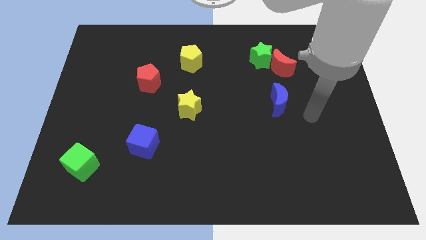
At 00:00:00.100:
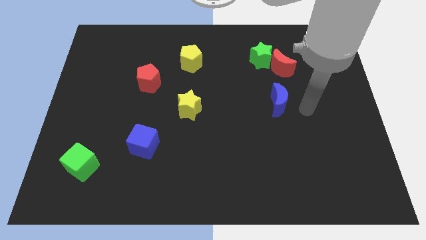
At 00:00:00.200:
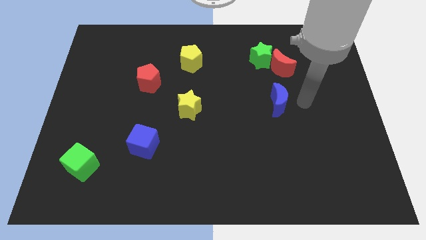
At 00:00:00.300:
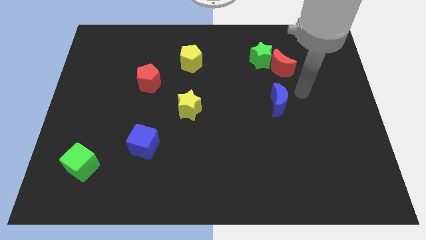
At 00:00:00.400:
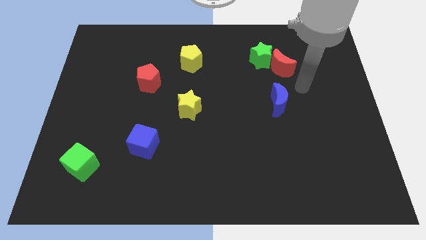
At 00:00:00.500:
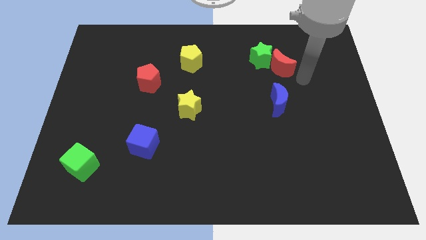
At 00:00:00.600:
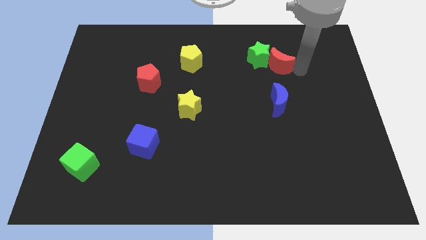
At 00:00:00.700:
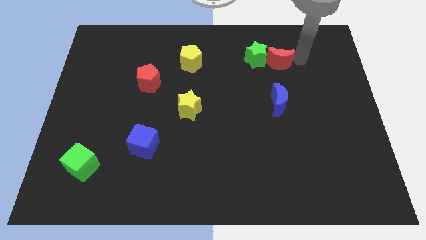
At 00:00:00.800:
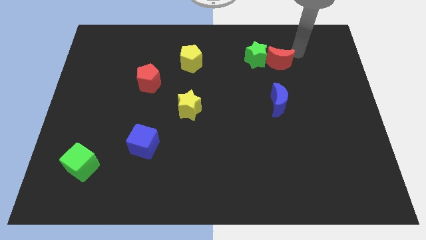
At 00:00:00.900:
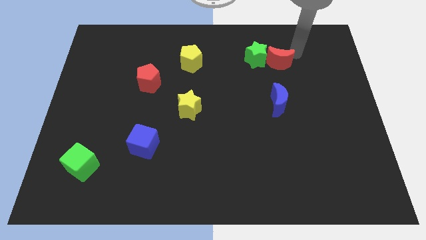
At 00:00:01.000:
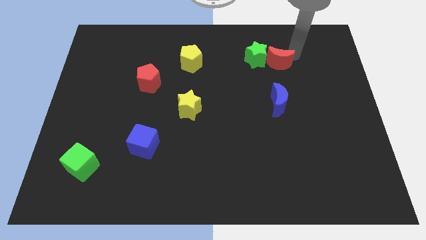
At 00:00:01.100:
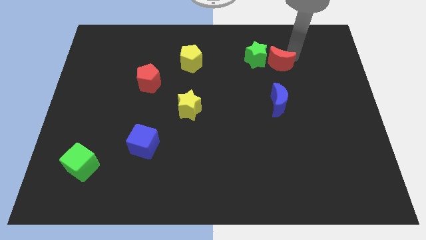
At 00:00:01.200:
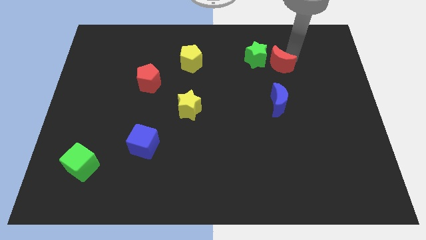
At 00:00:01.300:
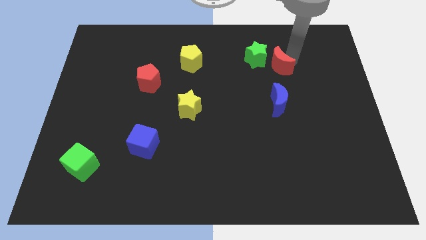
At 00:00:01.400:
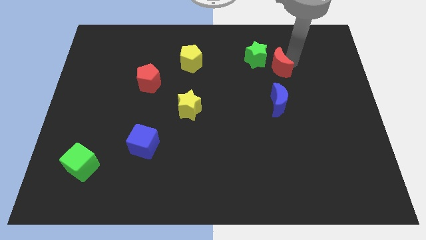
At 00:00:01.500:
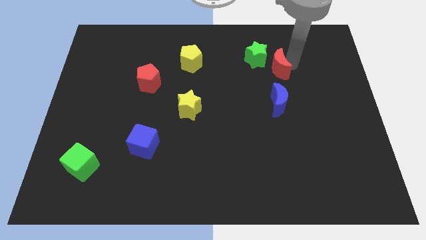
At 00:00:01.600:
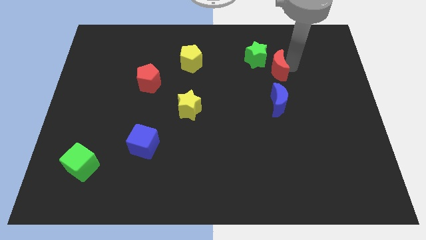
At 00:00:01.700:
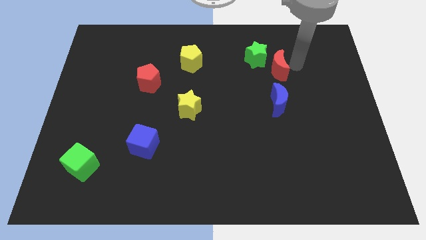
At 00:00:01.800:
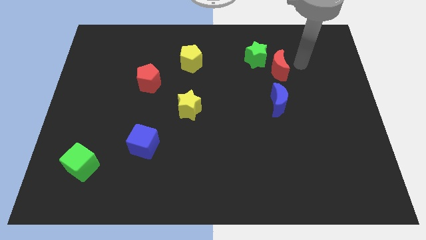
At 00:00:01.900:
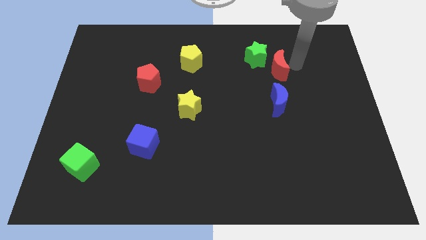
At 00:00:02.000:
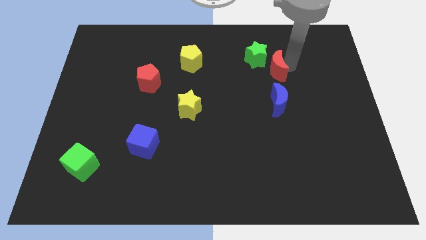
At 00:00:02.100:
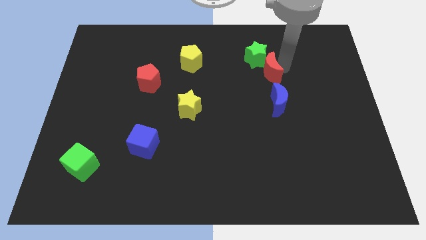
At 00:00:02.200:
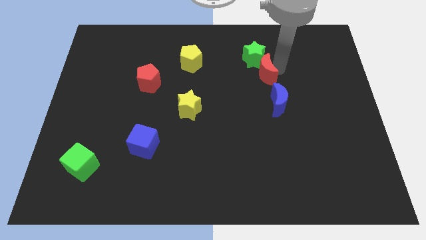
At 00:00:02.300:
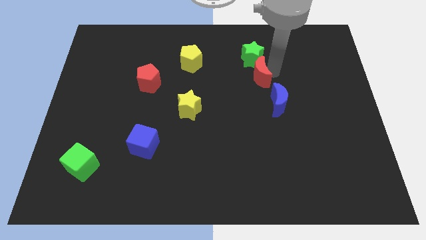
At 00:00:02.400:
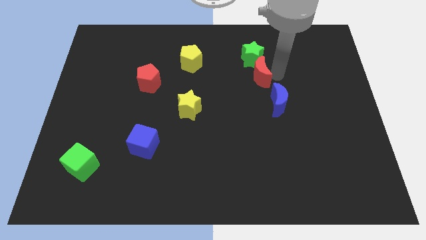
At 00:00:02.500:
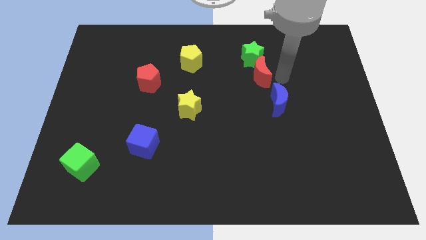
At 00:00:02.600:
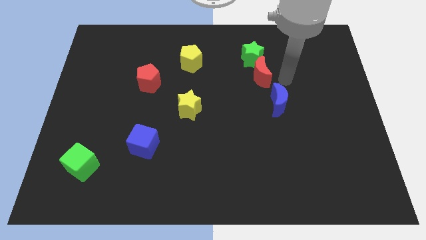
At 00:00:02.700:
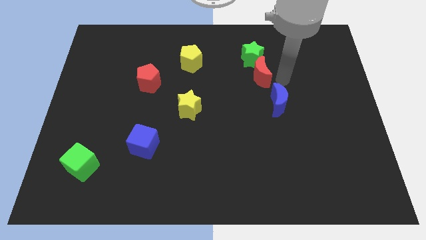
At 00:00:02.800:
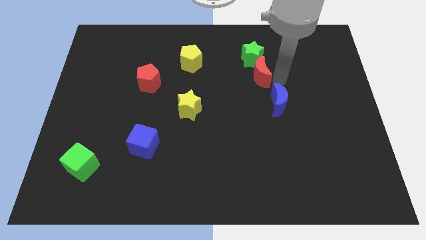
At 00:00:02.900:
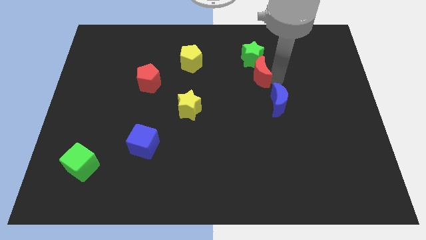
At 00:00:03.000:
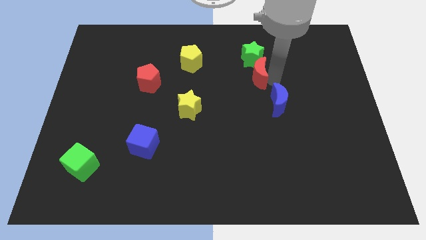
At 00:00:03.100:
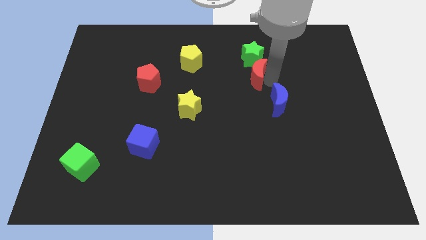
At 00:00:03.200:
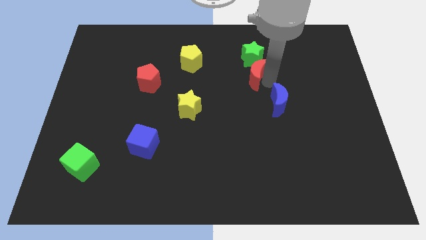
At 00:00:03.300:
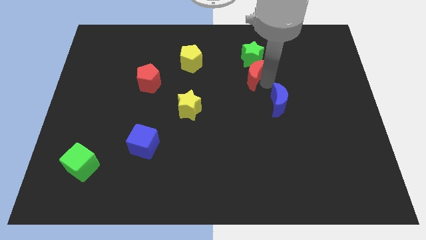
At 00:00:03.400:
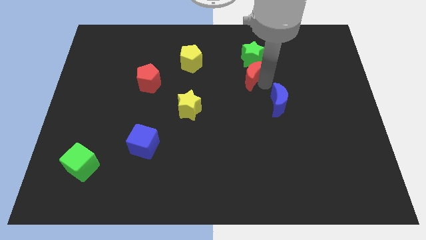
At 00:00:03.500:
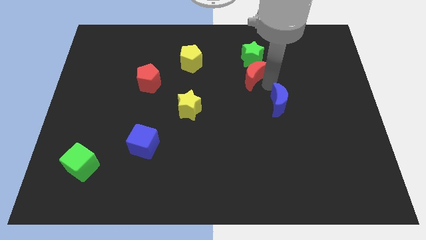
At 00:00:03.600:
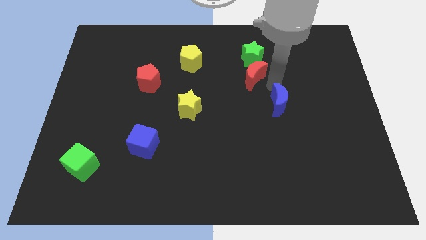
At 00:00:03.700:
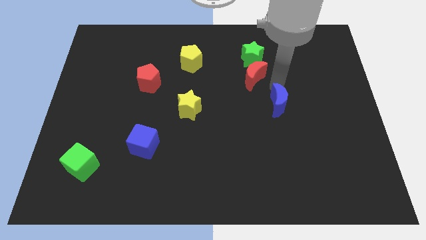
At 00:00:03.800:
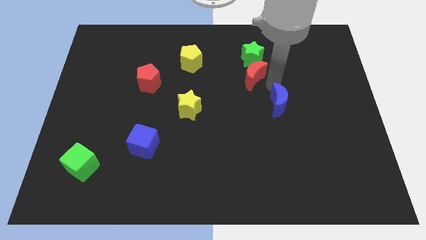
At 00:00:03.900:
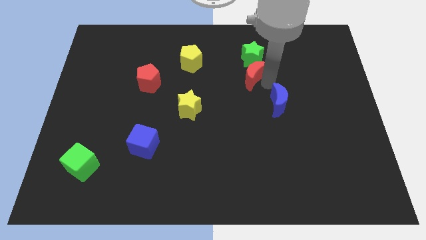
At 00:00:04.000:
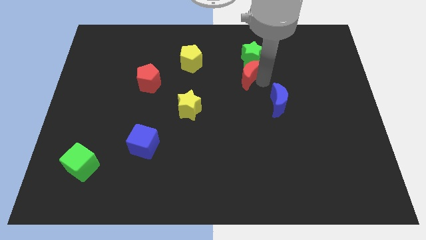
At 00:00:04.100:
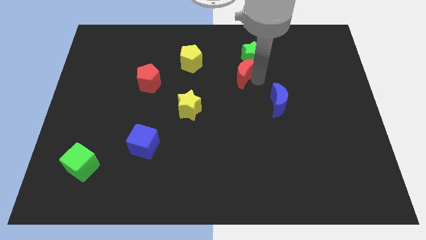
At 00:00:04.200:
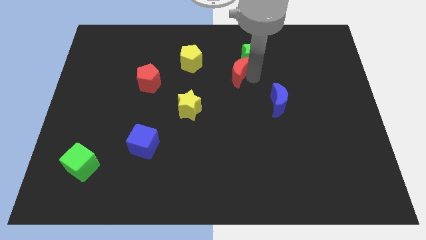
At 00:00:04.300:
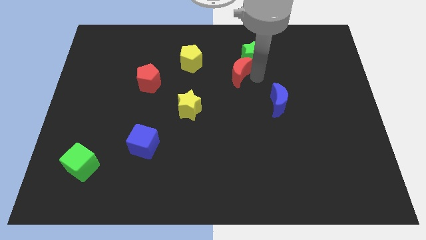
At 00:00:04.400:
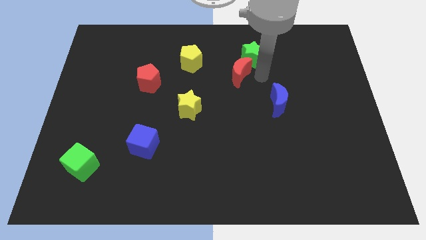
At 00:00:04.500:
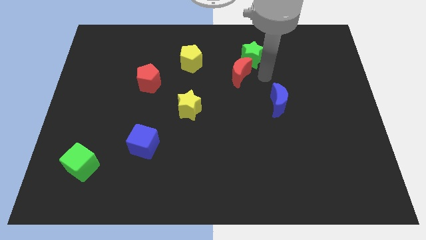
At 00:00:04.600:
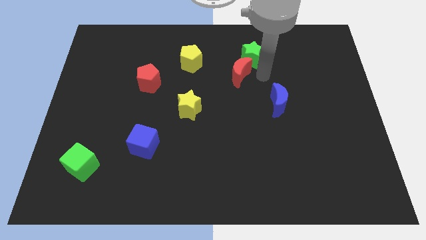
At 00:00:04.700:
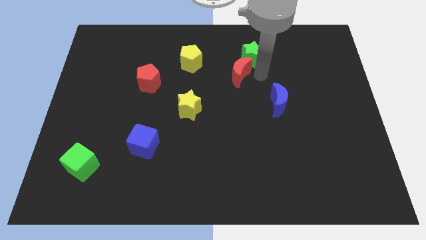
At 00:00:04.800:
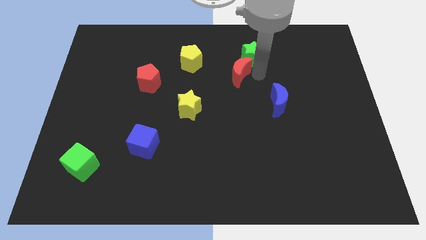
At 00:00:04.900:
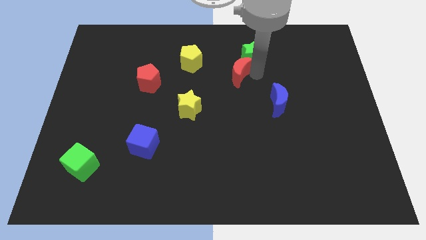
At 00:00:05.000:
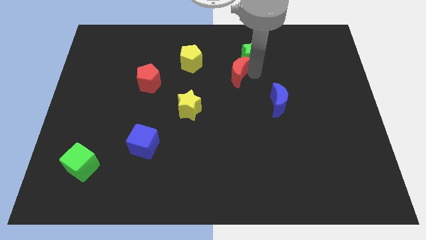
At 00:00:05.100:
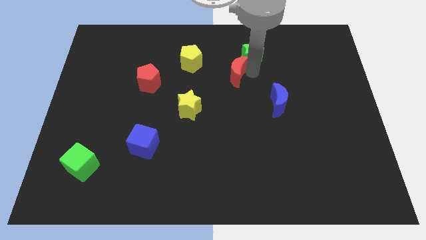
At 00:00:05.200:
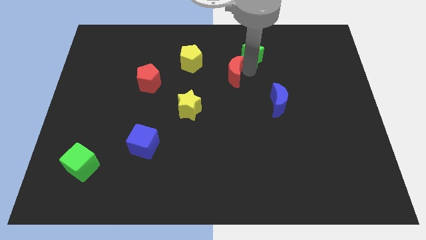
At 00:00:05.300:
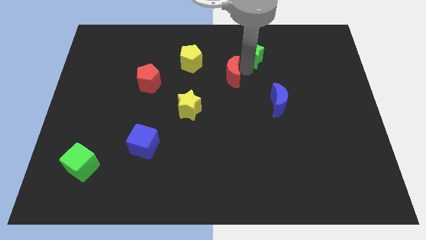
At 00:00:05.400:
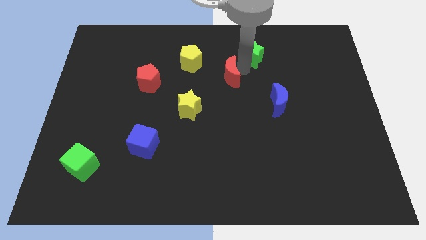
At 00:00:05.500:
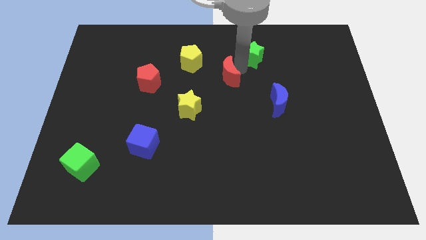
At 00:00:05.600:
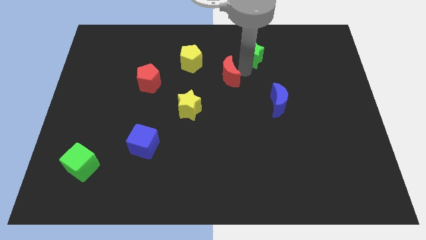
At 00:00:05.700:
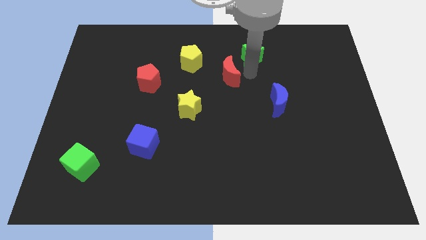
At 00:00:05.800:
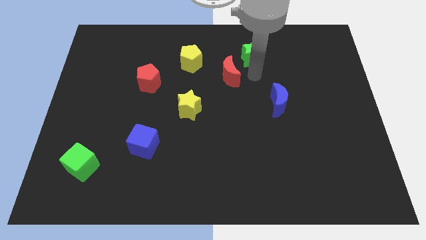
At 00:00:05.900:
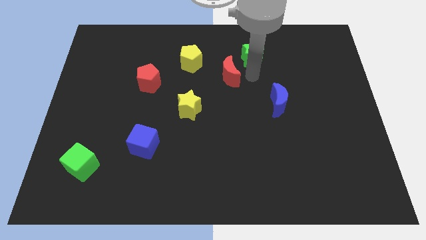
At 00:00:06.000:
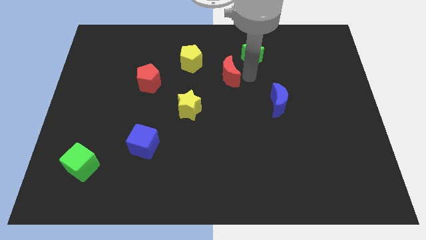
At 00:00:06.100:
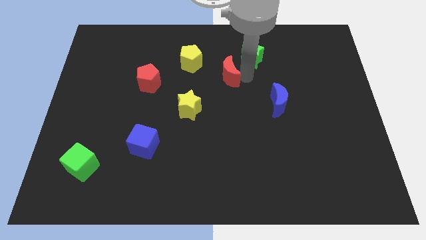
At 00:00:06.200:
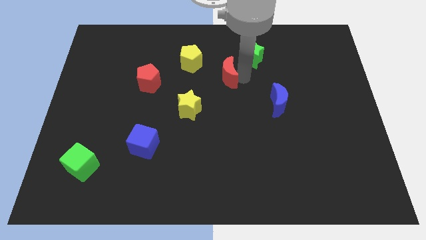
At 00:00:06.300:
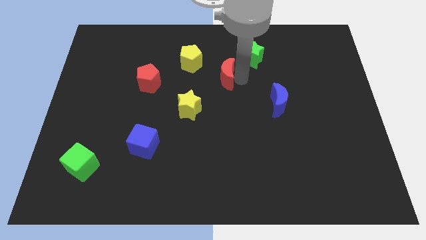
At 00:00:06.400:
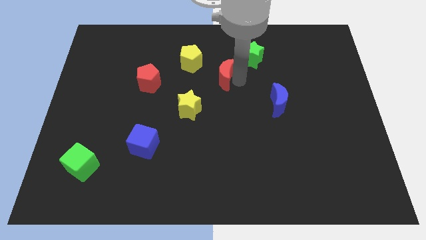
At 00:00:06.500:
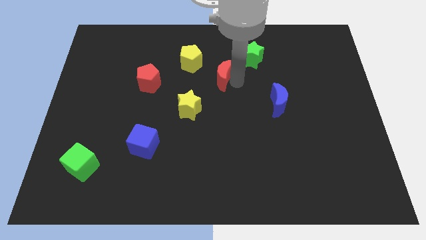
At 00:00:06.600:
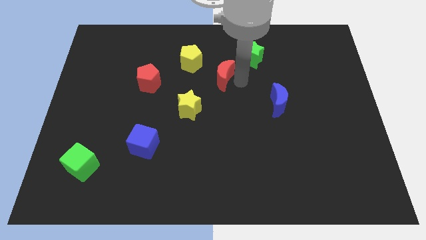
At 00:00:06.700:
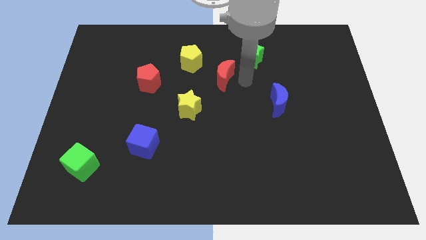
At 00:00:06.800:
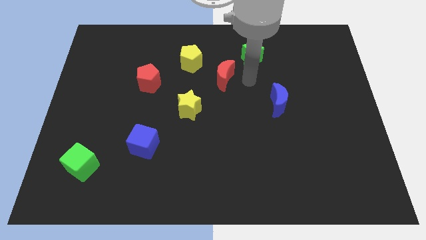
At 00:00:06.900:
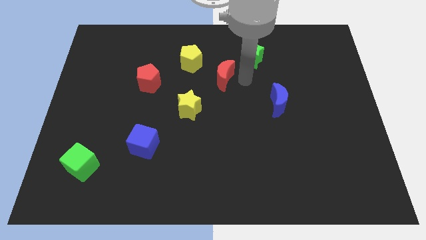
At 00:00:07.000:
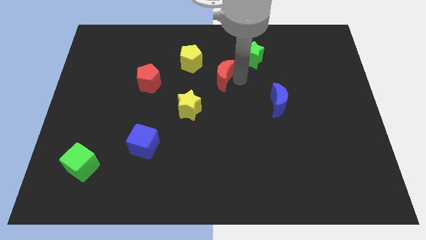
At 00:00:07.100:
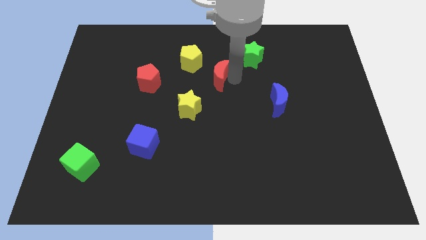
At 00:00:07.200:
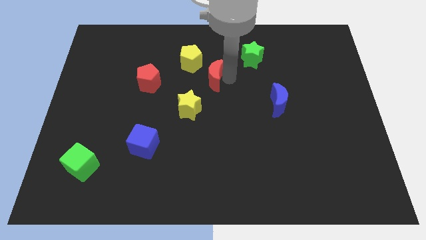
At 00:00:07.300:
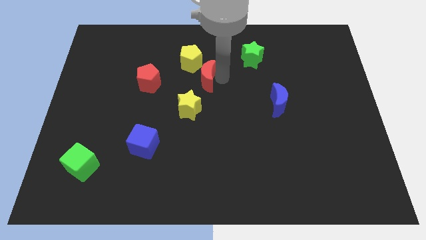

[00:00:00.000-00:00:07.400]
push the red moon to the top side of the yellow star

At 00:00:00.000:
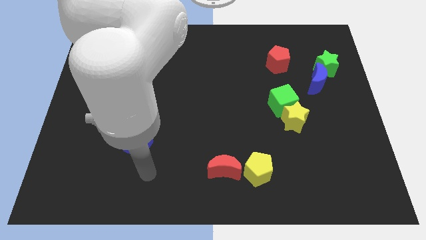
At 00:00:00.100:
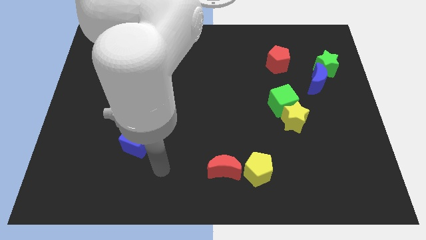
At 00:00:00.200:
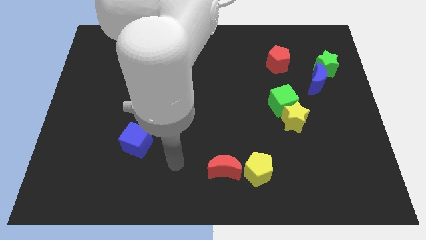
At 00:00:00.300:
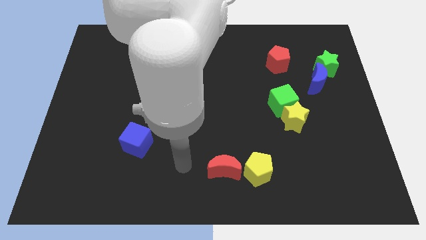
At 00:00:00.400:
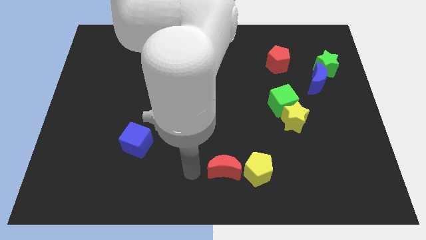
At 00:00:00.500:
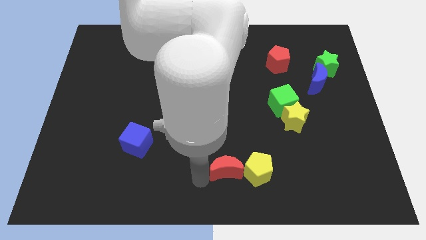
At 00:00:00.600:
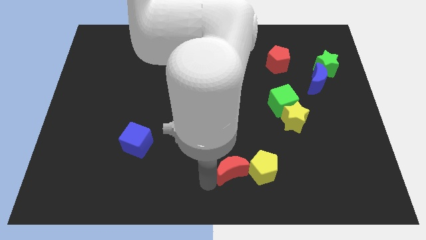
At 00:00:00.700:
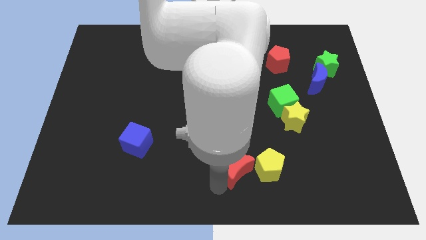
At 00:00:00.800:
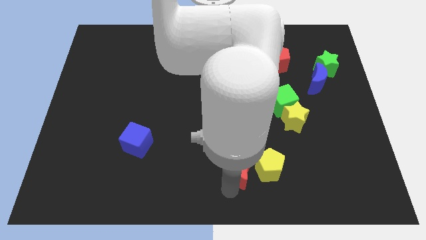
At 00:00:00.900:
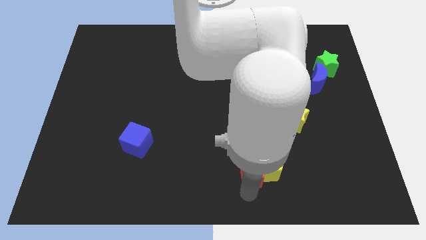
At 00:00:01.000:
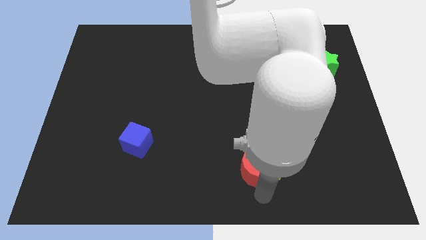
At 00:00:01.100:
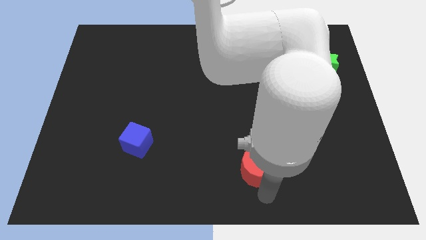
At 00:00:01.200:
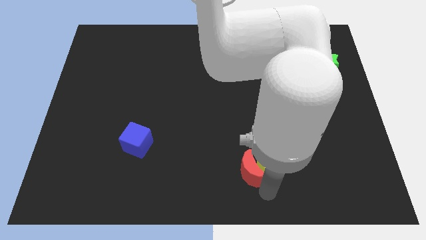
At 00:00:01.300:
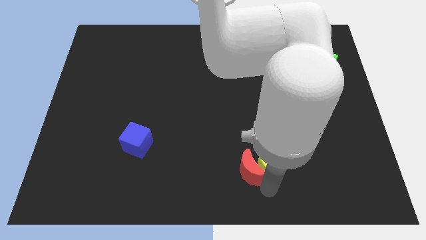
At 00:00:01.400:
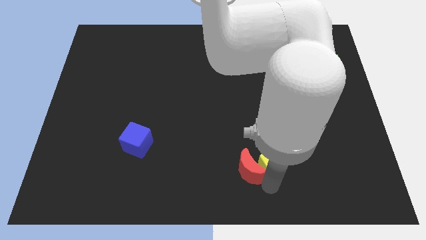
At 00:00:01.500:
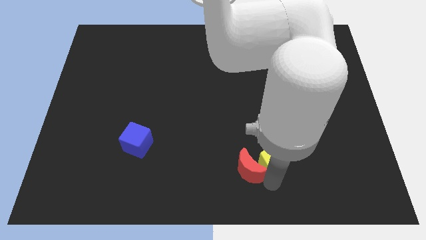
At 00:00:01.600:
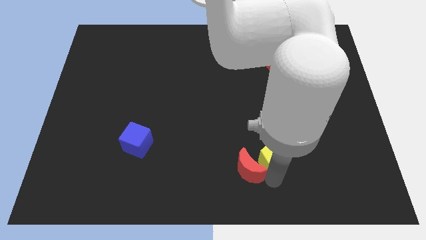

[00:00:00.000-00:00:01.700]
slide the yellow pentagon diagonally down and to the left of the yellow star
